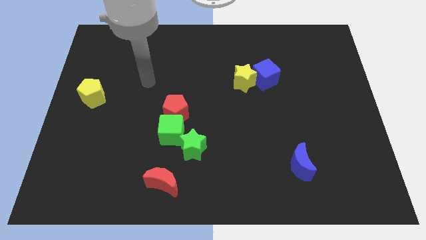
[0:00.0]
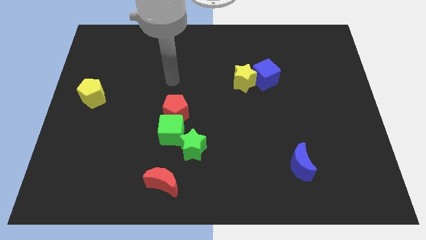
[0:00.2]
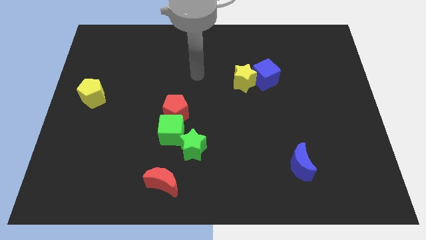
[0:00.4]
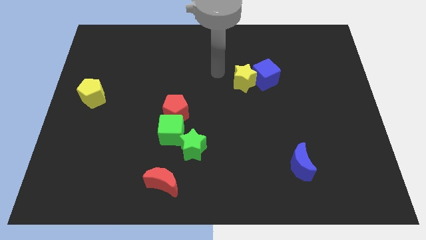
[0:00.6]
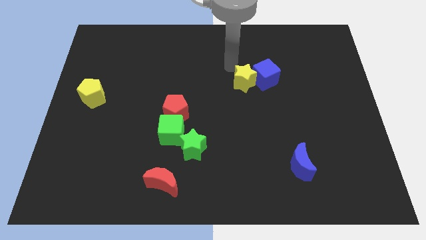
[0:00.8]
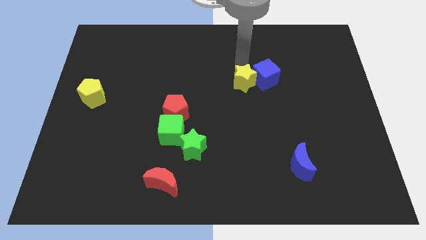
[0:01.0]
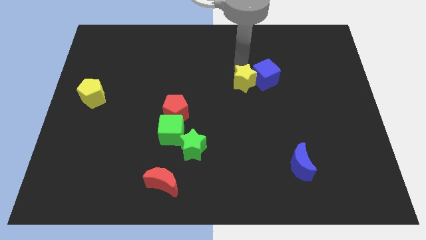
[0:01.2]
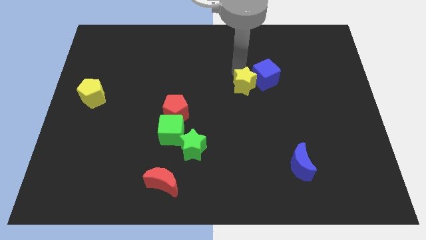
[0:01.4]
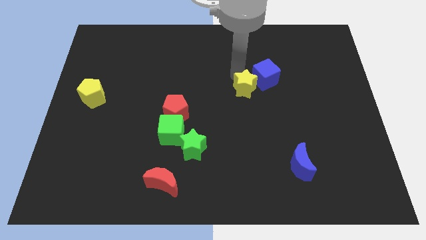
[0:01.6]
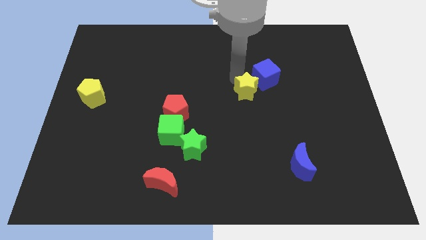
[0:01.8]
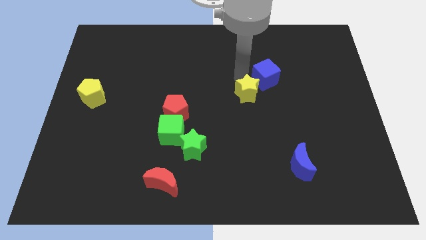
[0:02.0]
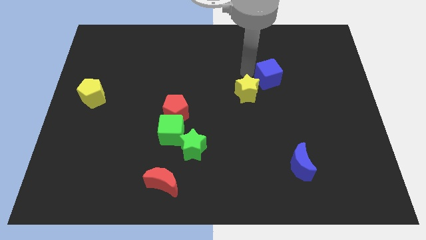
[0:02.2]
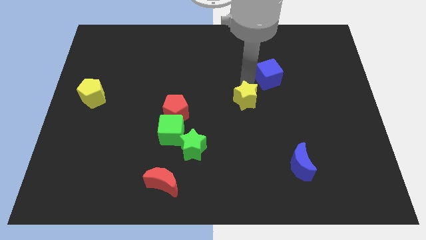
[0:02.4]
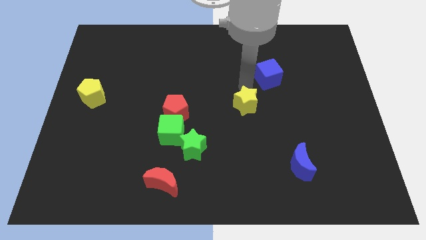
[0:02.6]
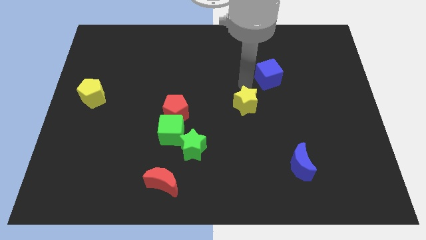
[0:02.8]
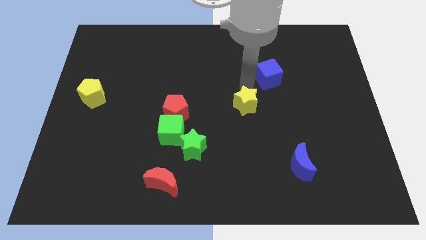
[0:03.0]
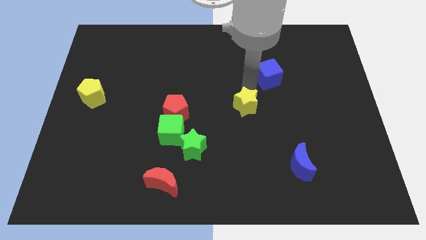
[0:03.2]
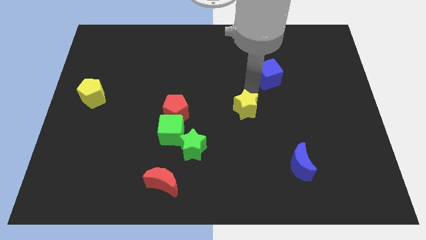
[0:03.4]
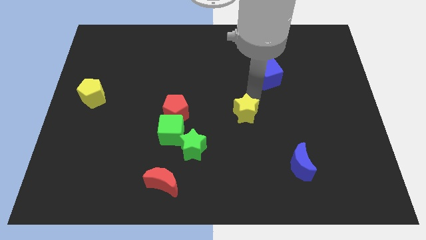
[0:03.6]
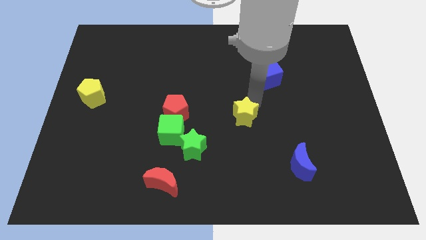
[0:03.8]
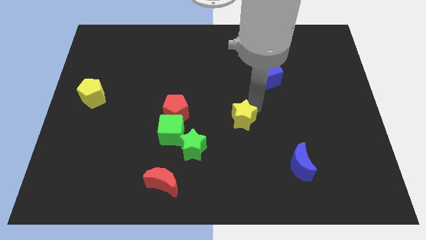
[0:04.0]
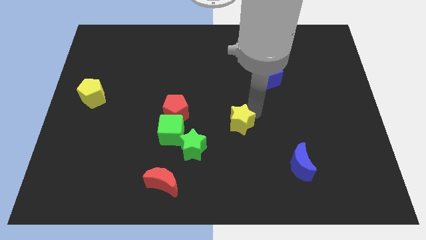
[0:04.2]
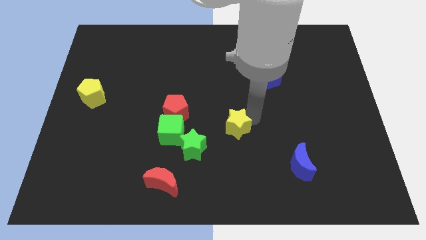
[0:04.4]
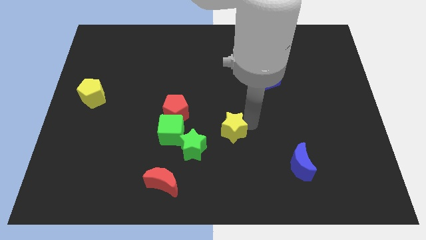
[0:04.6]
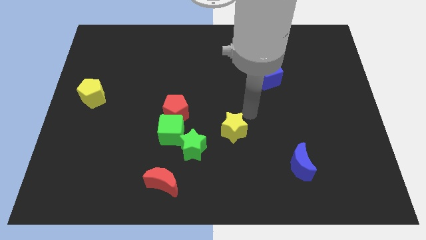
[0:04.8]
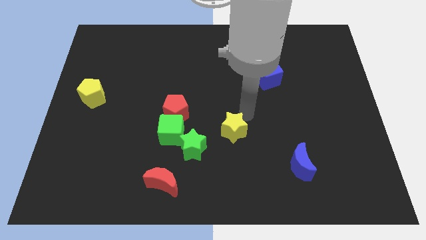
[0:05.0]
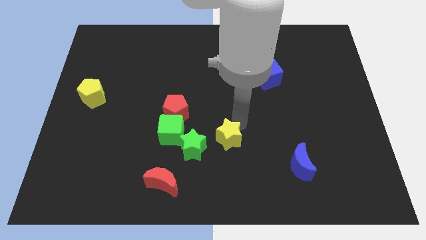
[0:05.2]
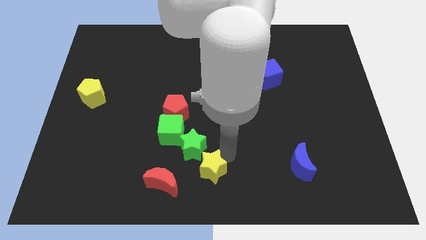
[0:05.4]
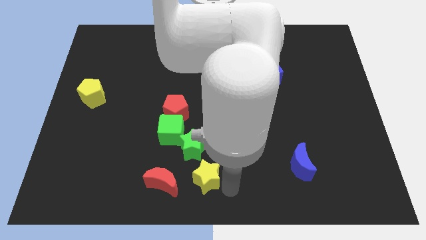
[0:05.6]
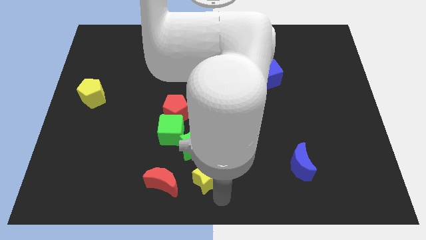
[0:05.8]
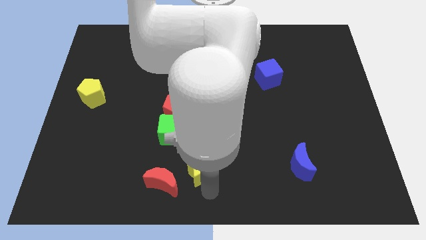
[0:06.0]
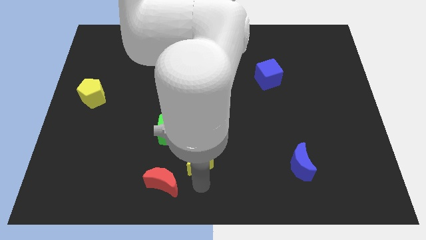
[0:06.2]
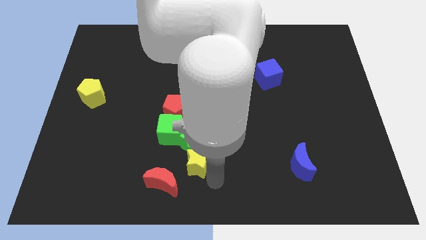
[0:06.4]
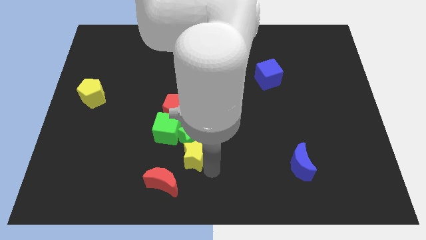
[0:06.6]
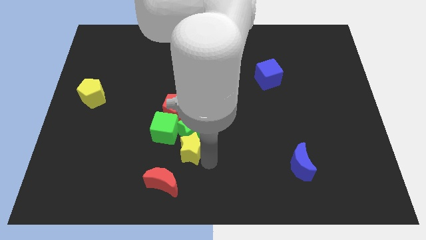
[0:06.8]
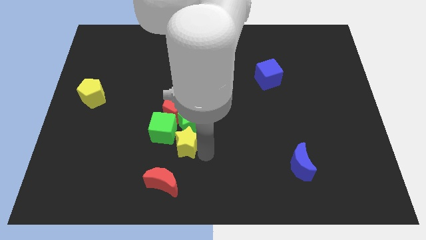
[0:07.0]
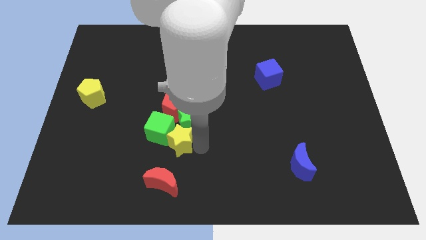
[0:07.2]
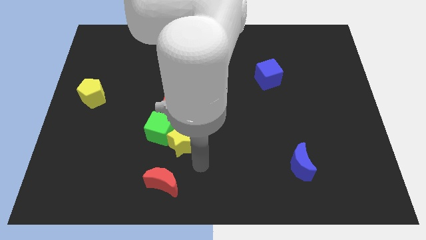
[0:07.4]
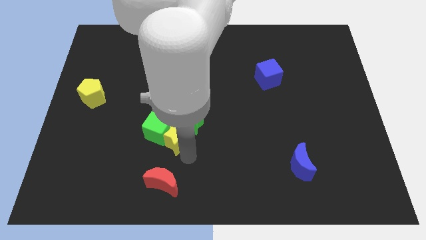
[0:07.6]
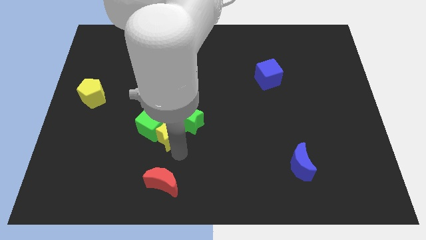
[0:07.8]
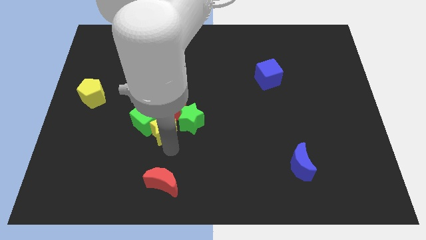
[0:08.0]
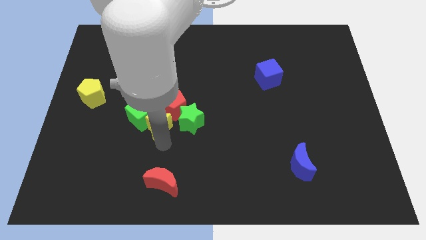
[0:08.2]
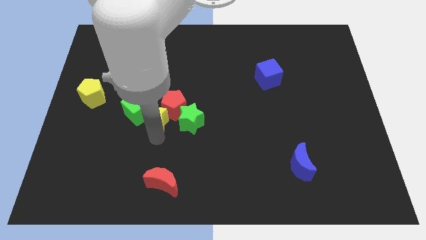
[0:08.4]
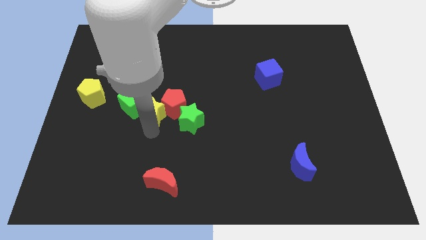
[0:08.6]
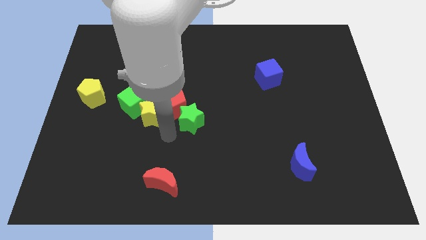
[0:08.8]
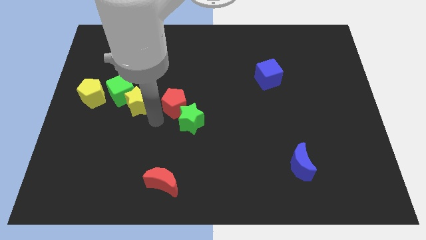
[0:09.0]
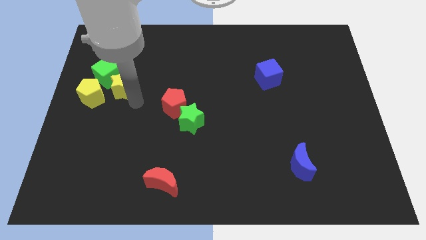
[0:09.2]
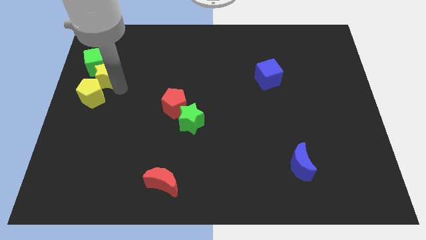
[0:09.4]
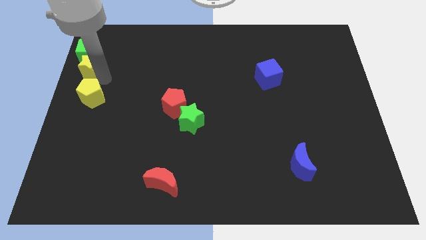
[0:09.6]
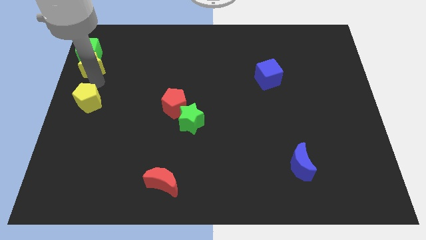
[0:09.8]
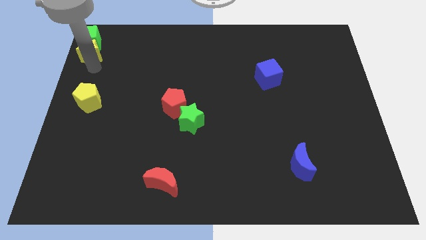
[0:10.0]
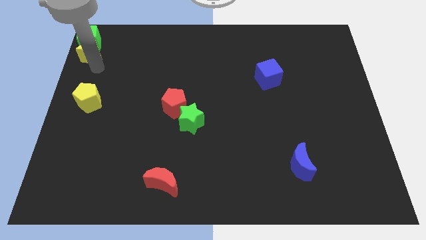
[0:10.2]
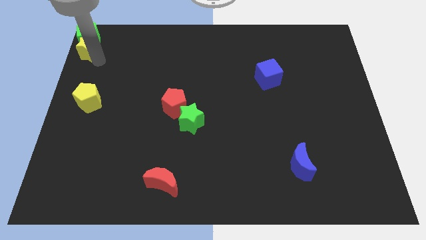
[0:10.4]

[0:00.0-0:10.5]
put the yellow star to the top left
